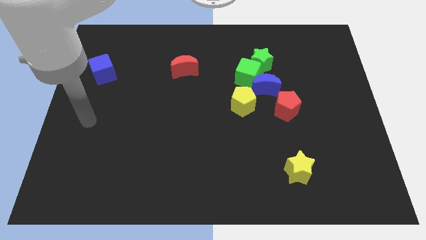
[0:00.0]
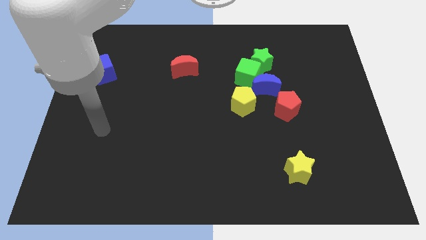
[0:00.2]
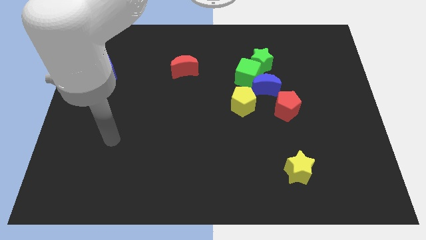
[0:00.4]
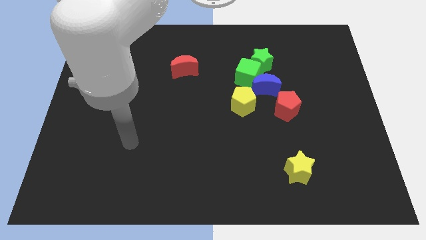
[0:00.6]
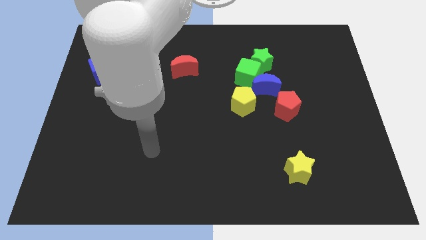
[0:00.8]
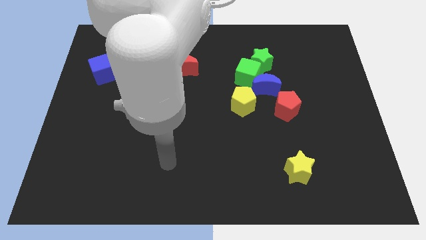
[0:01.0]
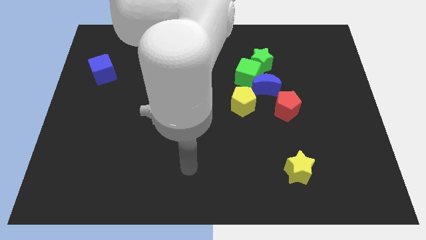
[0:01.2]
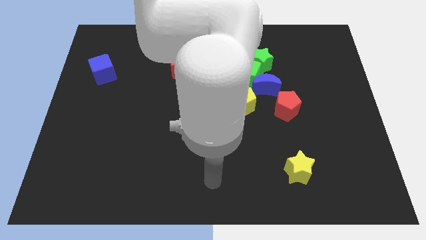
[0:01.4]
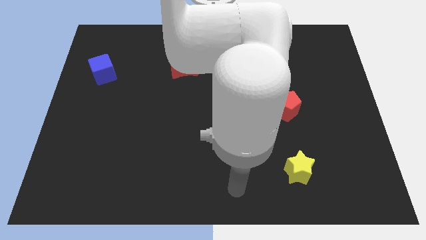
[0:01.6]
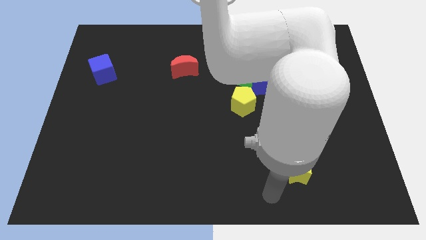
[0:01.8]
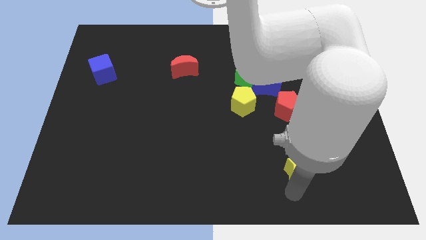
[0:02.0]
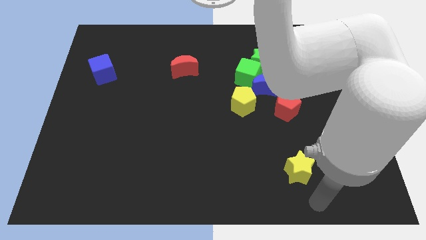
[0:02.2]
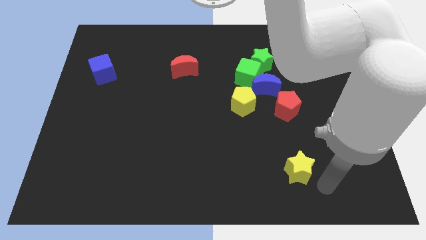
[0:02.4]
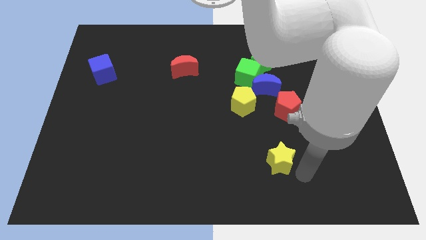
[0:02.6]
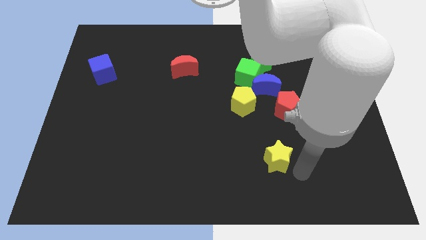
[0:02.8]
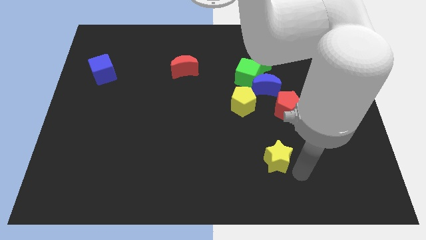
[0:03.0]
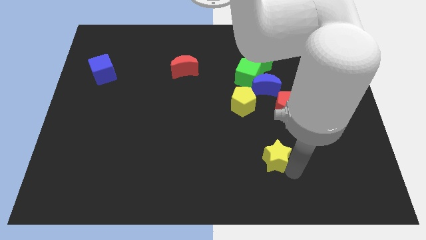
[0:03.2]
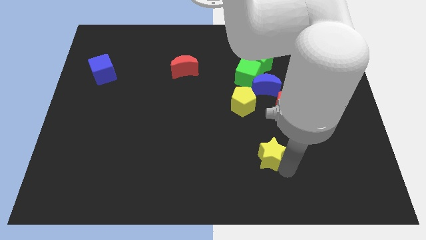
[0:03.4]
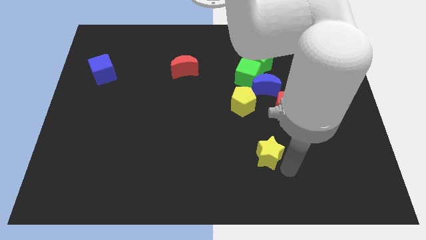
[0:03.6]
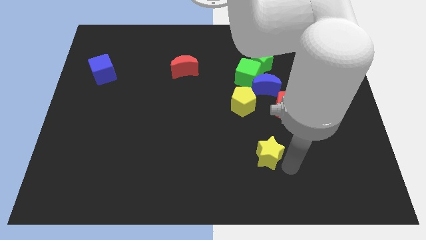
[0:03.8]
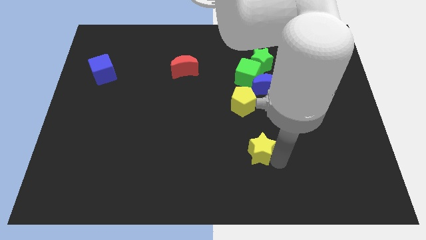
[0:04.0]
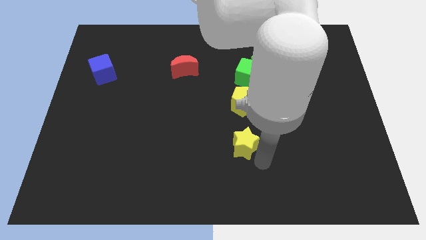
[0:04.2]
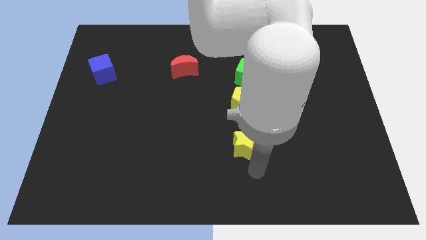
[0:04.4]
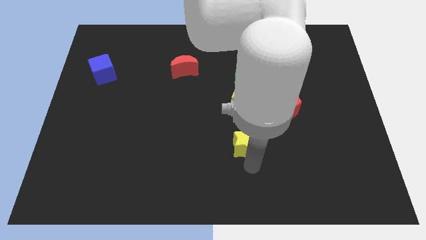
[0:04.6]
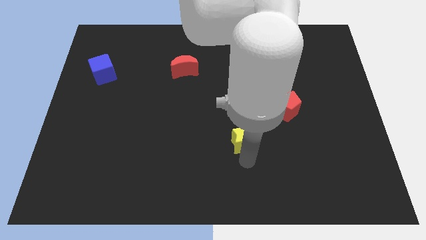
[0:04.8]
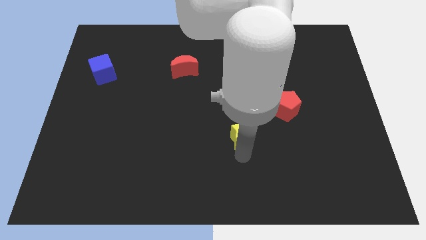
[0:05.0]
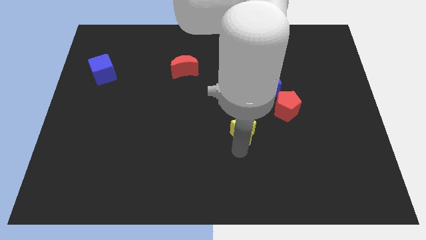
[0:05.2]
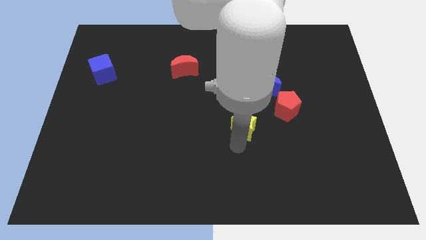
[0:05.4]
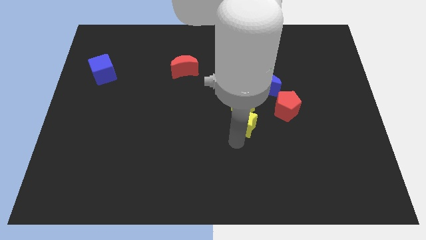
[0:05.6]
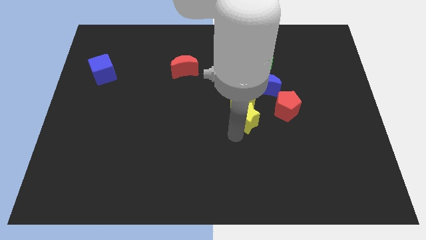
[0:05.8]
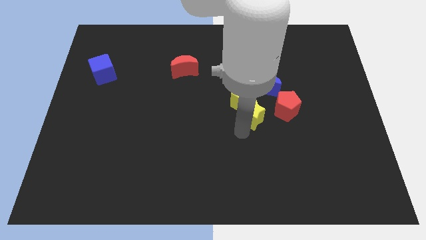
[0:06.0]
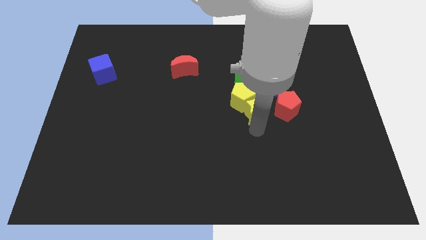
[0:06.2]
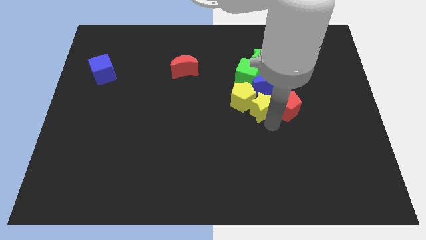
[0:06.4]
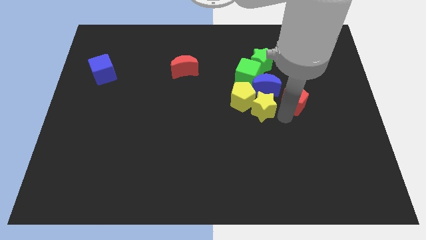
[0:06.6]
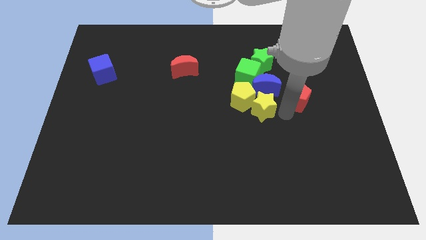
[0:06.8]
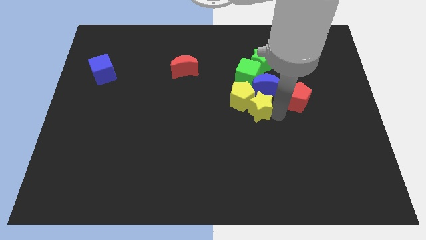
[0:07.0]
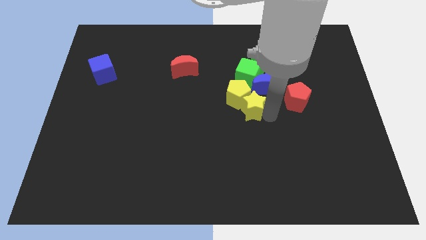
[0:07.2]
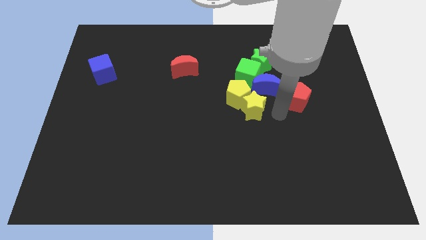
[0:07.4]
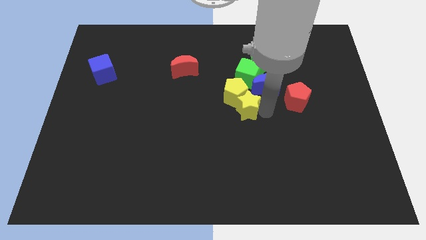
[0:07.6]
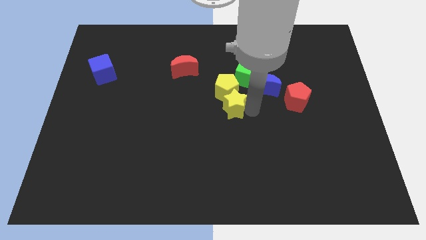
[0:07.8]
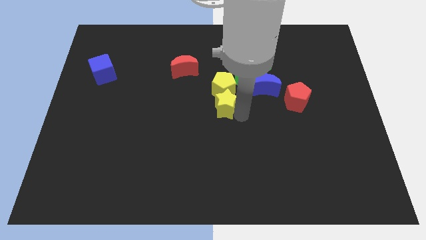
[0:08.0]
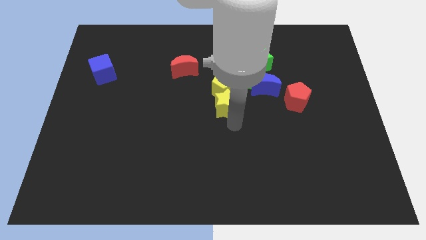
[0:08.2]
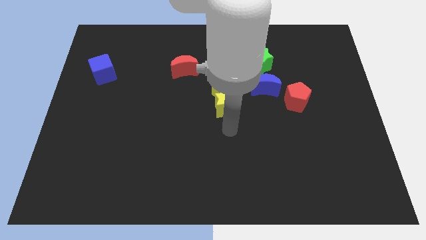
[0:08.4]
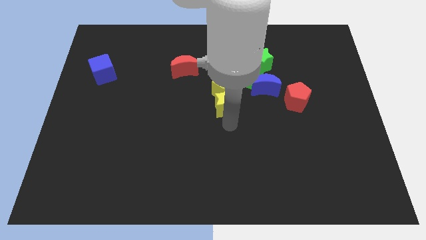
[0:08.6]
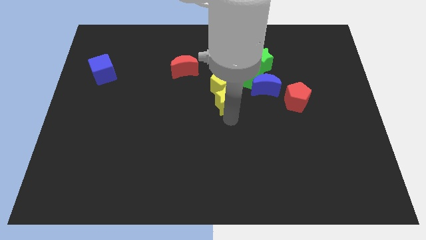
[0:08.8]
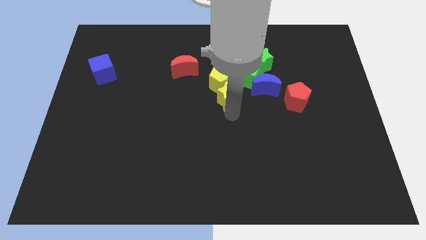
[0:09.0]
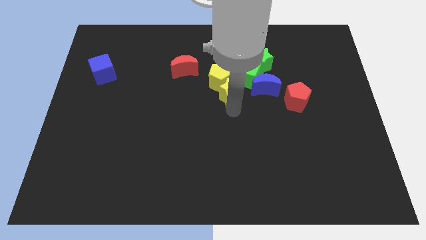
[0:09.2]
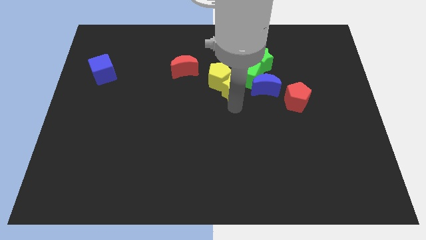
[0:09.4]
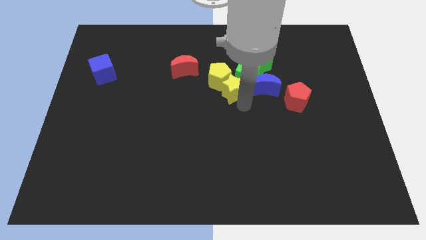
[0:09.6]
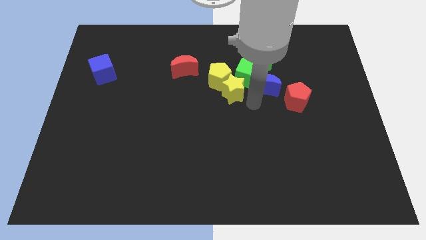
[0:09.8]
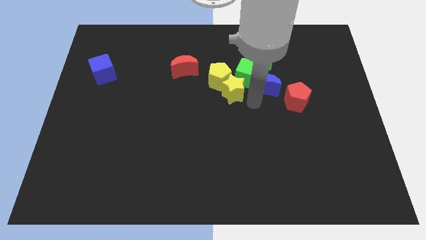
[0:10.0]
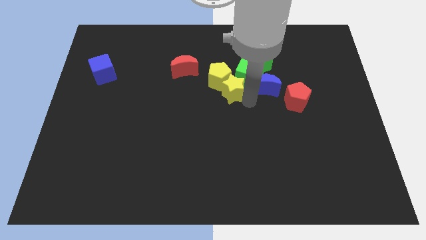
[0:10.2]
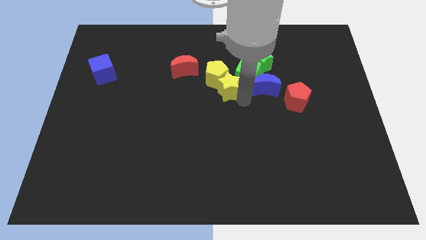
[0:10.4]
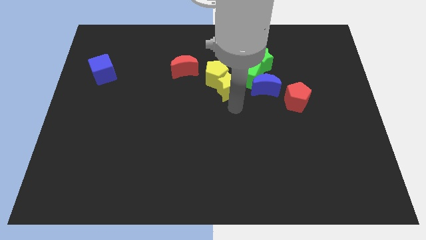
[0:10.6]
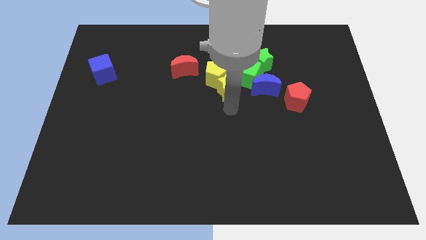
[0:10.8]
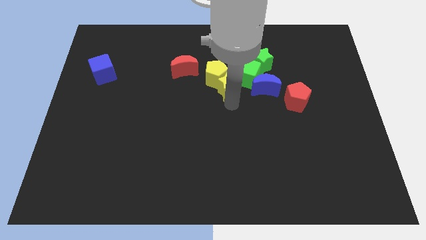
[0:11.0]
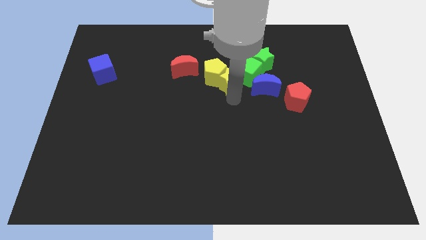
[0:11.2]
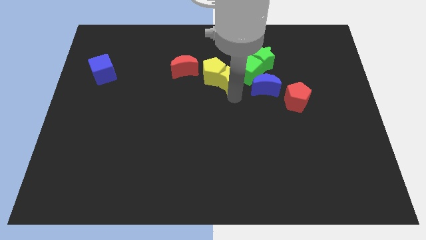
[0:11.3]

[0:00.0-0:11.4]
slide the yellow star just right of the red moon

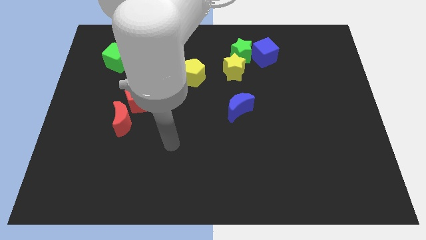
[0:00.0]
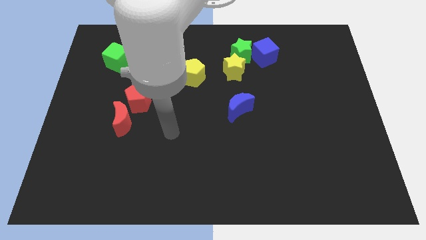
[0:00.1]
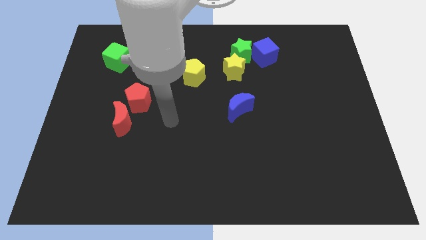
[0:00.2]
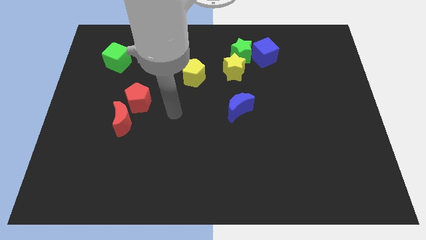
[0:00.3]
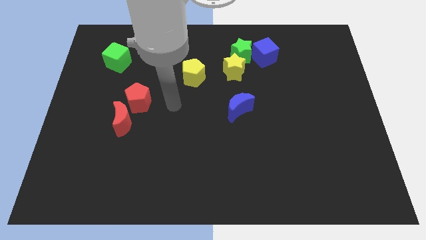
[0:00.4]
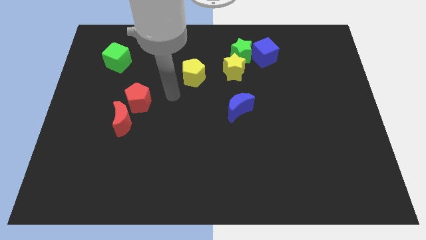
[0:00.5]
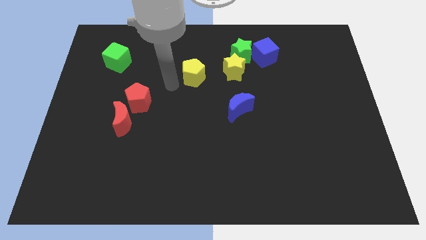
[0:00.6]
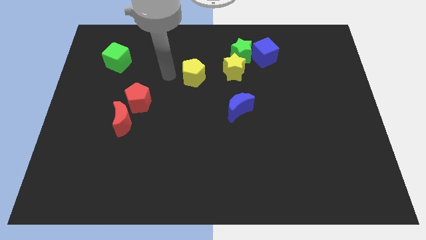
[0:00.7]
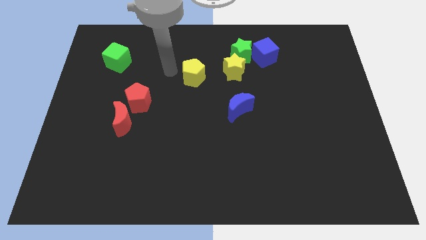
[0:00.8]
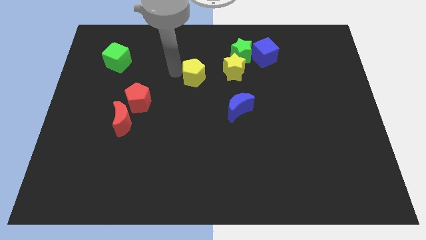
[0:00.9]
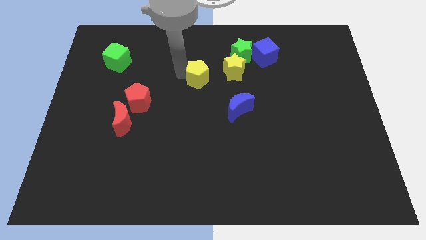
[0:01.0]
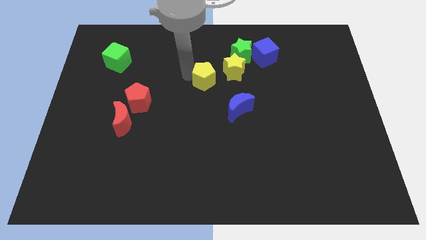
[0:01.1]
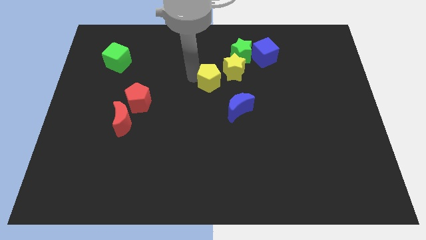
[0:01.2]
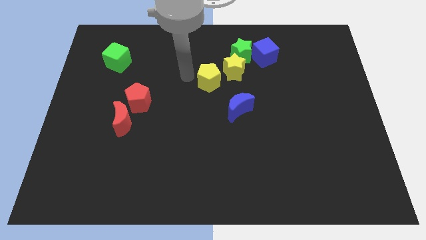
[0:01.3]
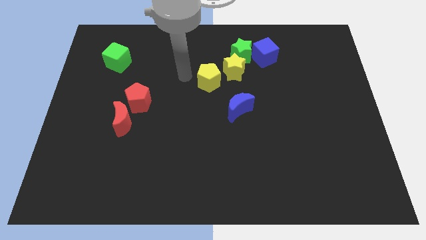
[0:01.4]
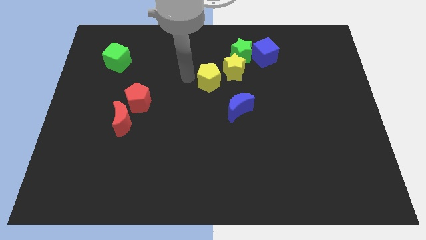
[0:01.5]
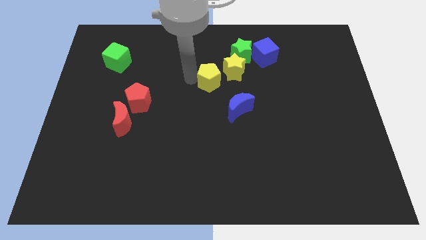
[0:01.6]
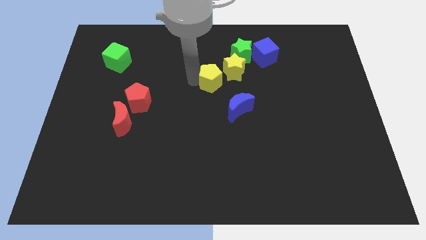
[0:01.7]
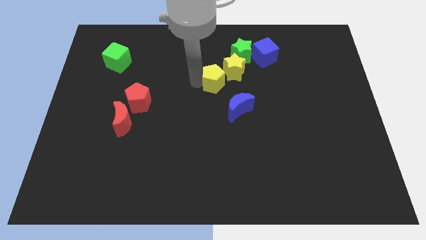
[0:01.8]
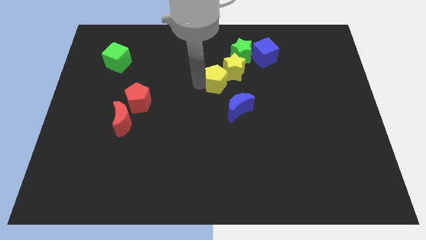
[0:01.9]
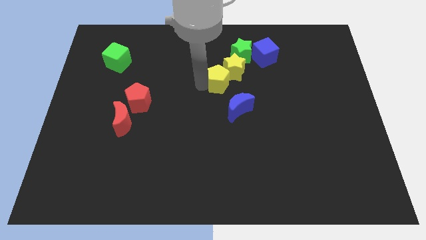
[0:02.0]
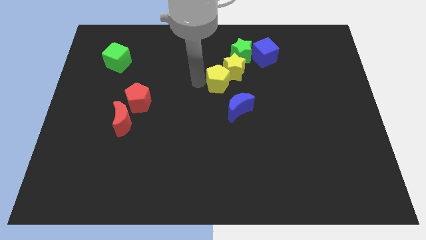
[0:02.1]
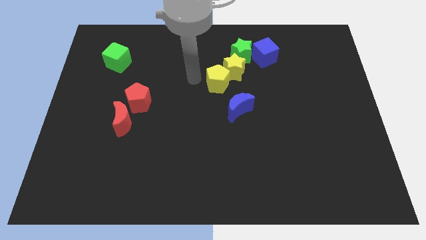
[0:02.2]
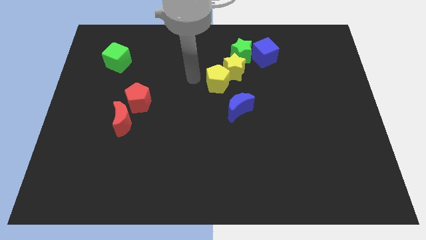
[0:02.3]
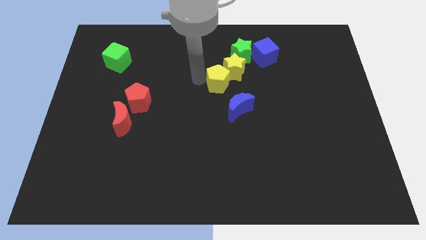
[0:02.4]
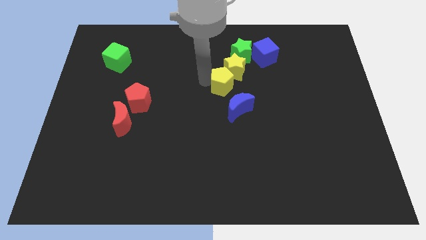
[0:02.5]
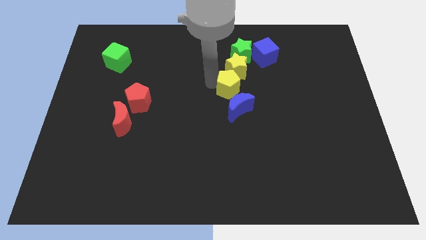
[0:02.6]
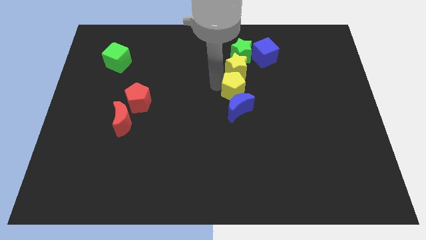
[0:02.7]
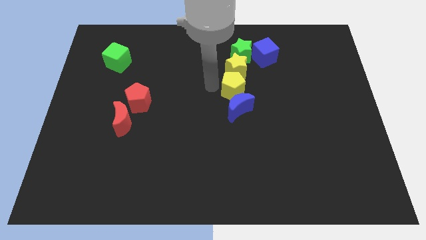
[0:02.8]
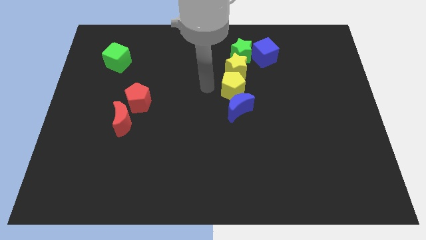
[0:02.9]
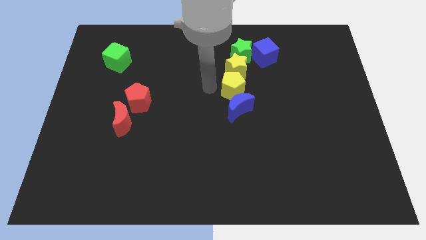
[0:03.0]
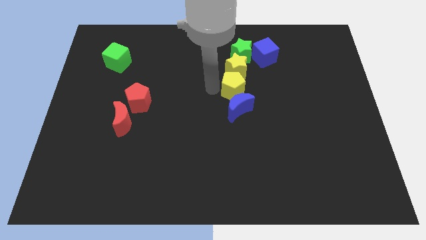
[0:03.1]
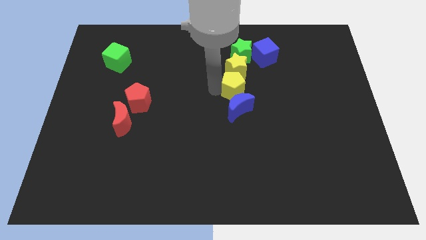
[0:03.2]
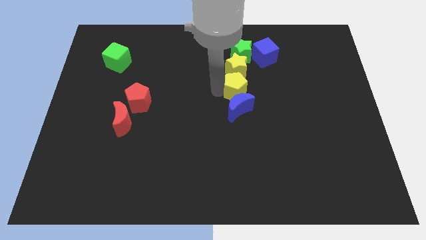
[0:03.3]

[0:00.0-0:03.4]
move the yellow pentagon to the top right side of the blue moon
